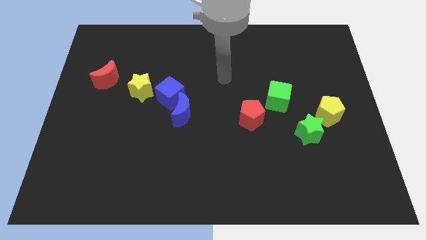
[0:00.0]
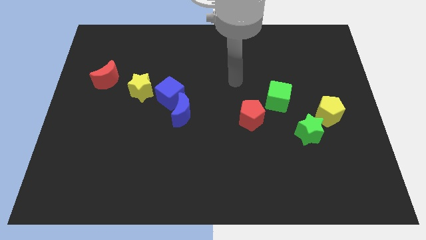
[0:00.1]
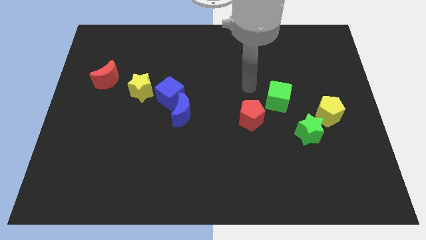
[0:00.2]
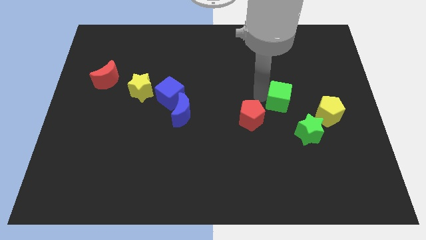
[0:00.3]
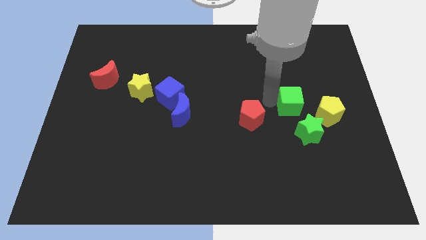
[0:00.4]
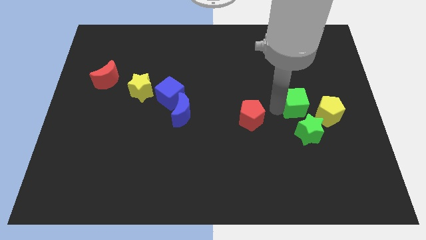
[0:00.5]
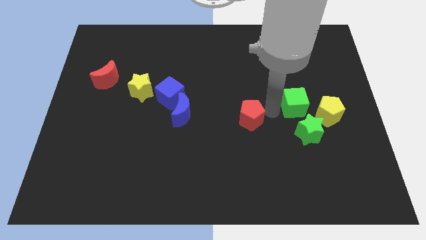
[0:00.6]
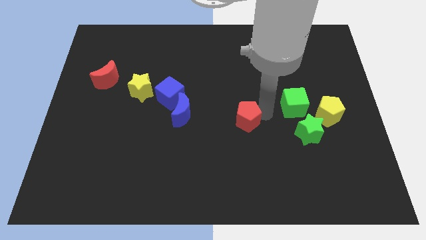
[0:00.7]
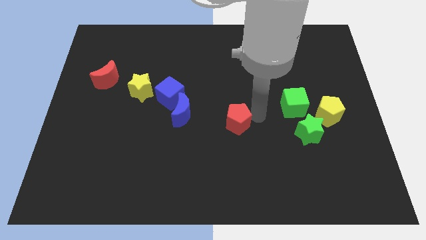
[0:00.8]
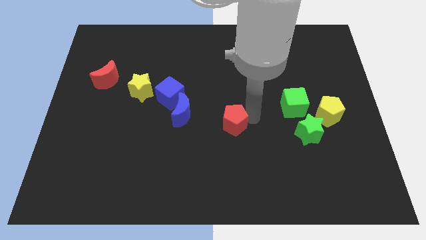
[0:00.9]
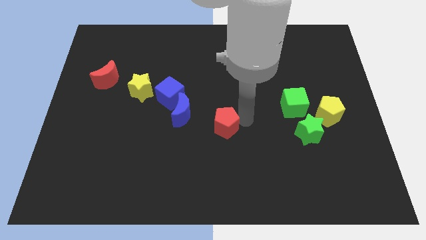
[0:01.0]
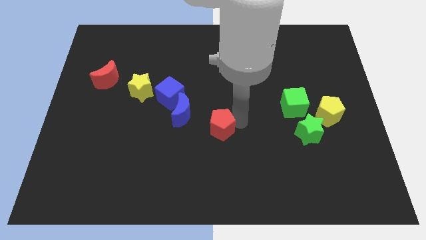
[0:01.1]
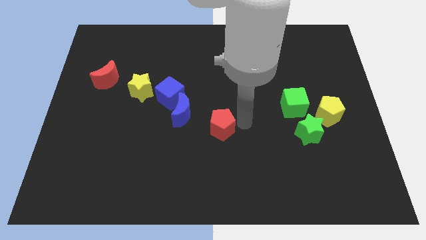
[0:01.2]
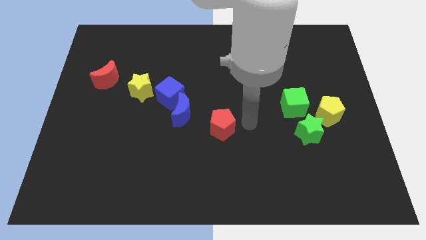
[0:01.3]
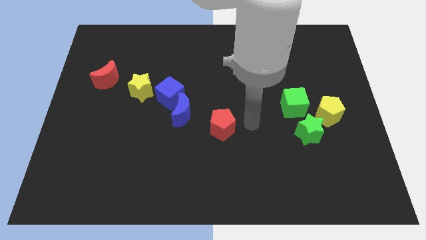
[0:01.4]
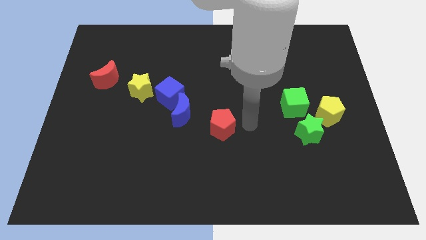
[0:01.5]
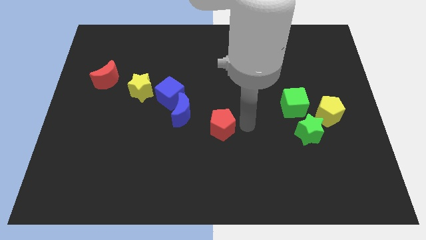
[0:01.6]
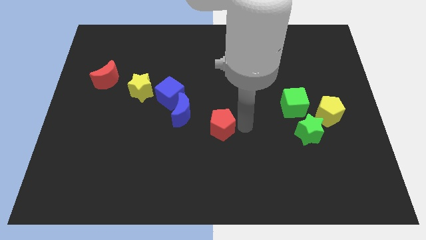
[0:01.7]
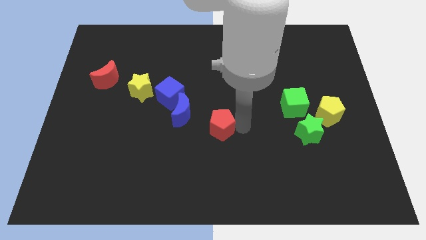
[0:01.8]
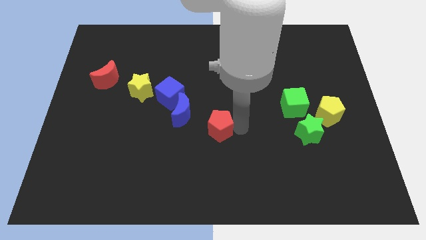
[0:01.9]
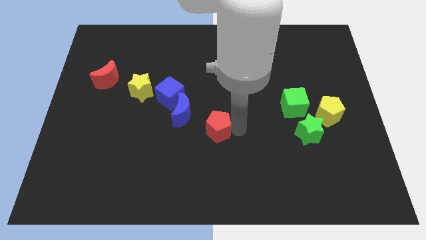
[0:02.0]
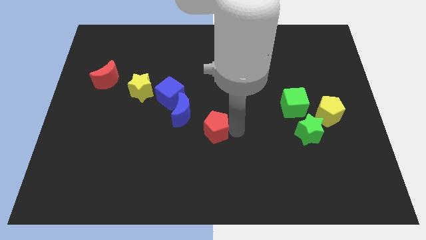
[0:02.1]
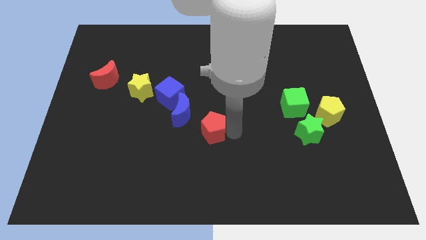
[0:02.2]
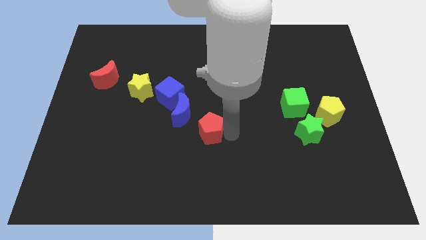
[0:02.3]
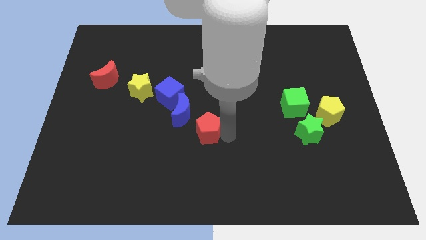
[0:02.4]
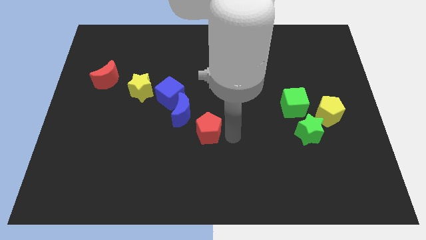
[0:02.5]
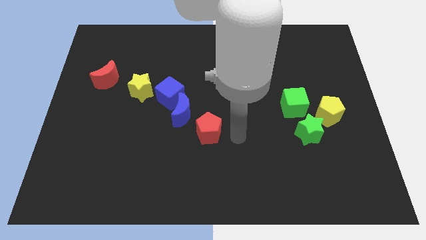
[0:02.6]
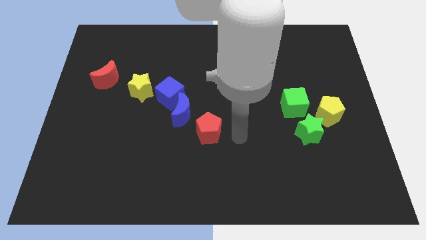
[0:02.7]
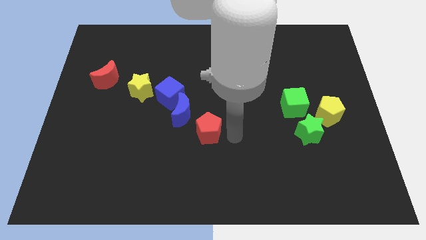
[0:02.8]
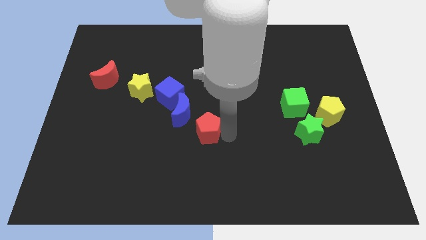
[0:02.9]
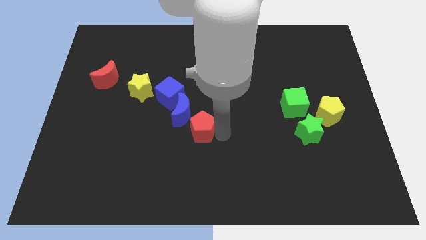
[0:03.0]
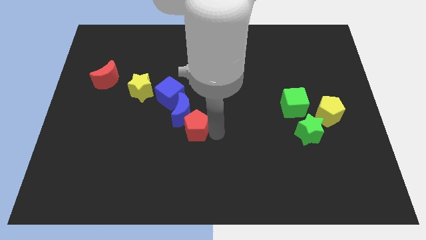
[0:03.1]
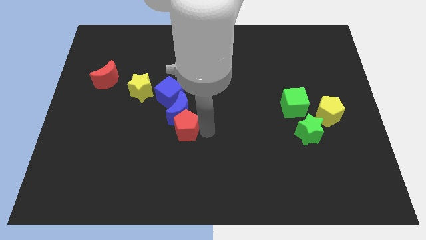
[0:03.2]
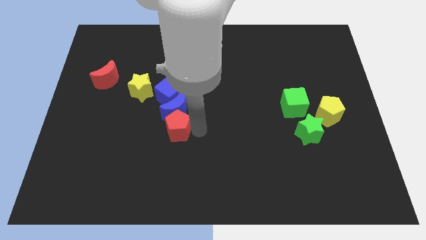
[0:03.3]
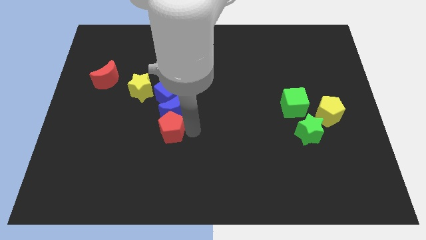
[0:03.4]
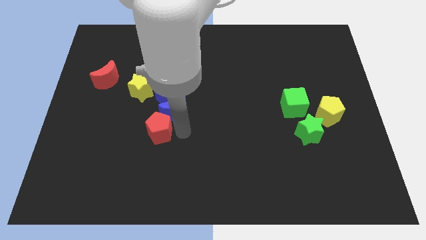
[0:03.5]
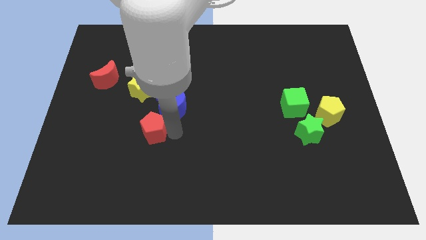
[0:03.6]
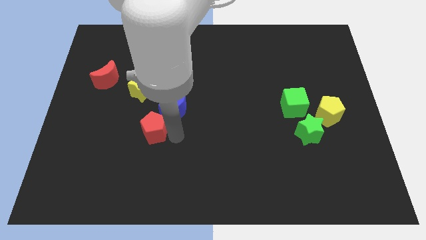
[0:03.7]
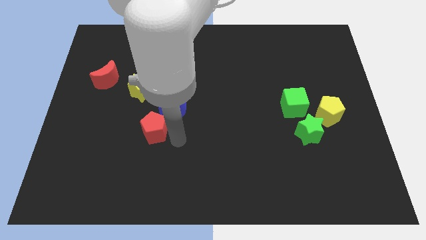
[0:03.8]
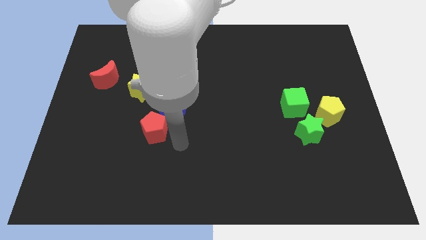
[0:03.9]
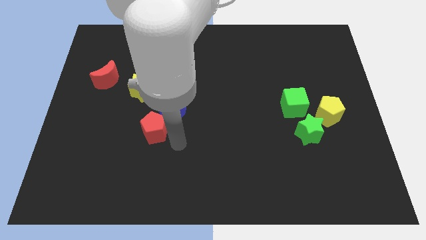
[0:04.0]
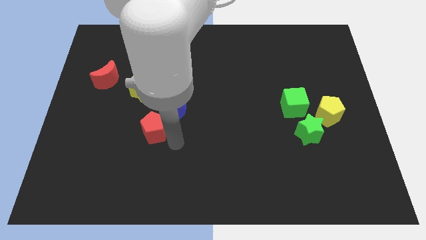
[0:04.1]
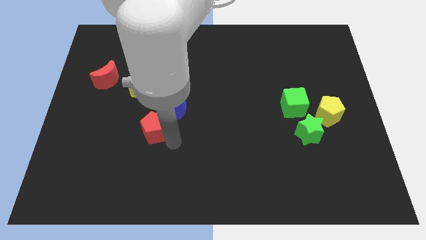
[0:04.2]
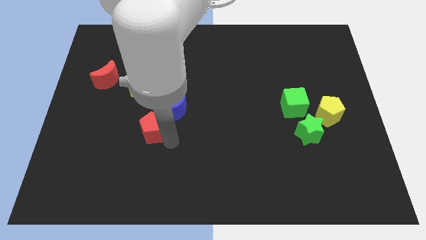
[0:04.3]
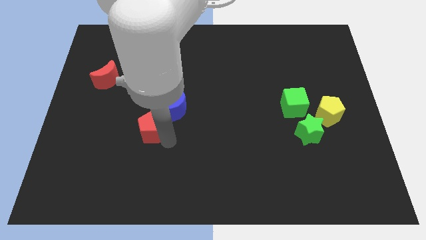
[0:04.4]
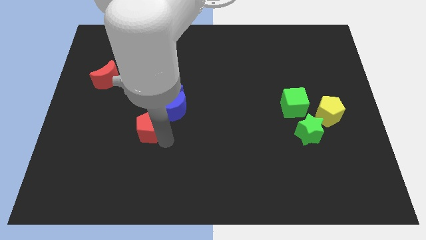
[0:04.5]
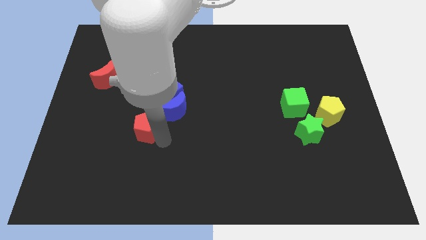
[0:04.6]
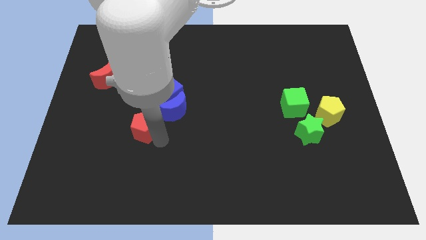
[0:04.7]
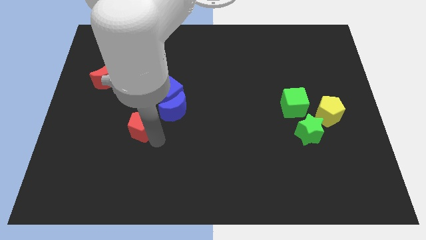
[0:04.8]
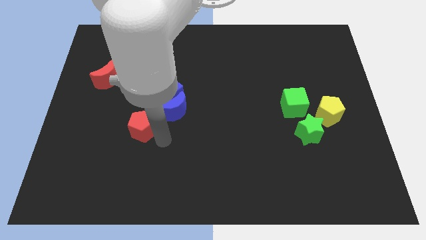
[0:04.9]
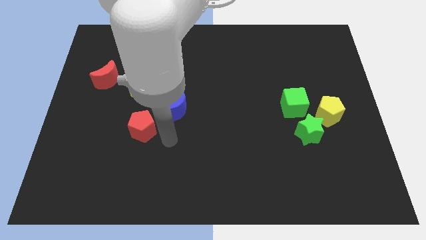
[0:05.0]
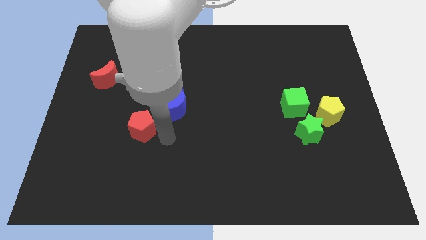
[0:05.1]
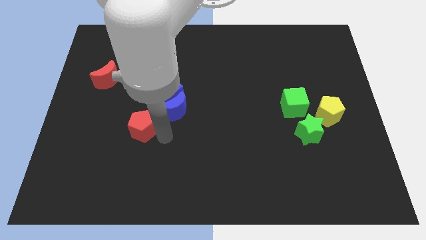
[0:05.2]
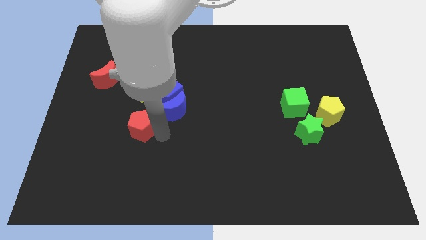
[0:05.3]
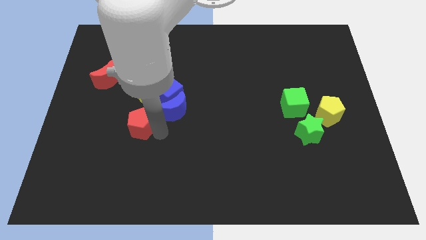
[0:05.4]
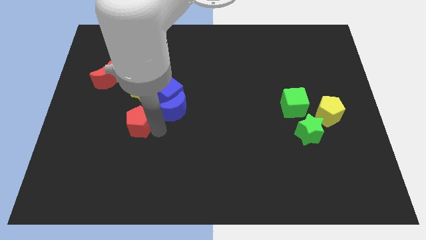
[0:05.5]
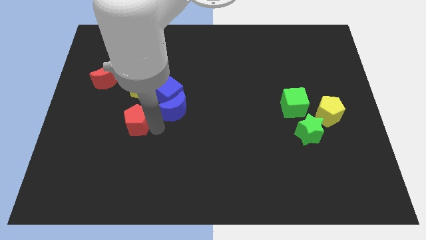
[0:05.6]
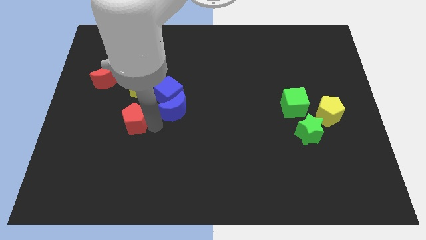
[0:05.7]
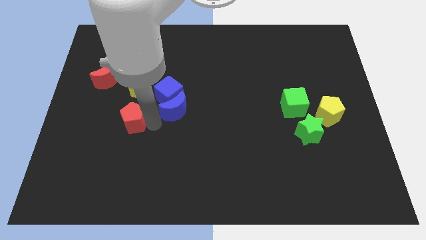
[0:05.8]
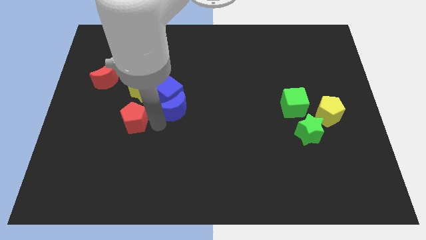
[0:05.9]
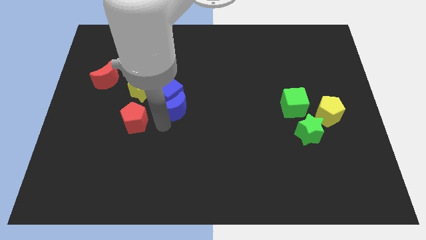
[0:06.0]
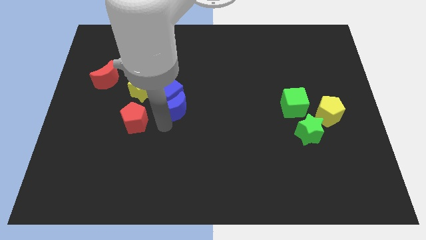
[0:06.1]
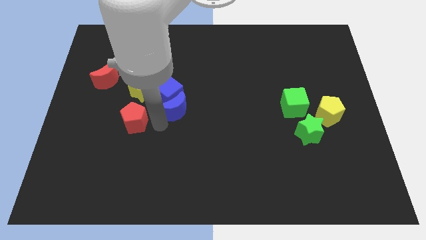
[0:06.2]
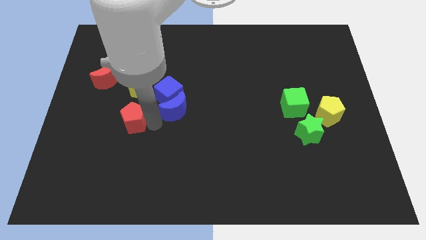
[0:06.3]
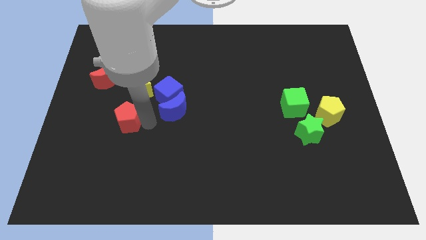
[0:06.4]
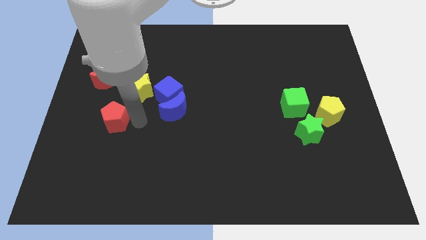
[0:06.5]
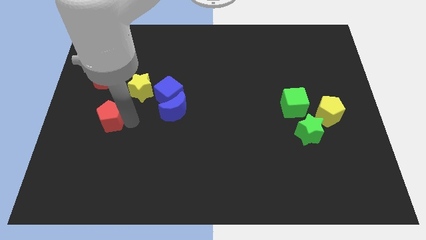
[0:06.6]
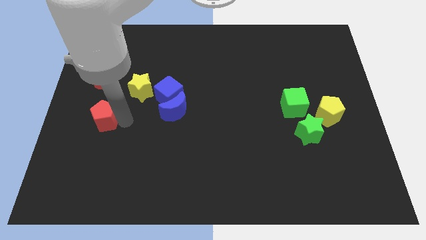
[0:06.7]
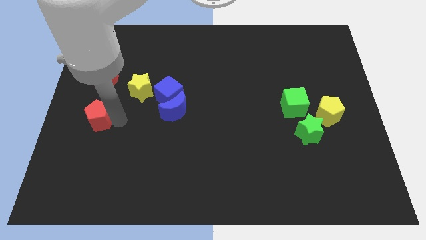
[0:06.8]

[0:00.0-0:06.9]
slide the red pentagon to the left side of the board
